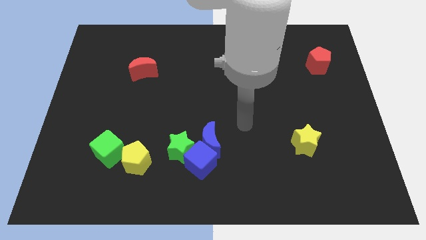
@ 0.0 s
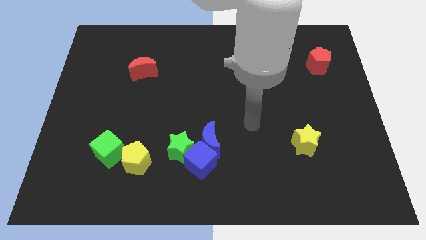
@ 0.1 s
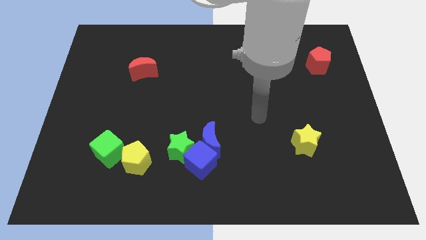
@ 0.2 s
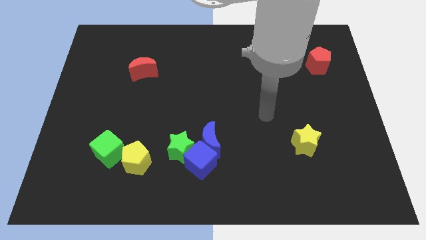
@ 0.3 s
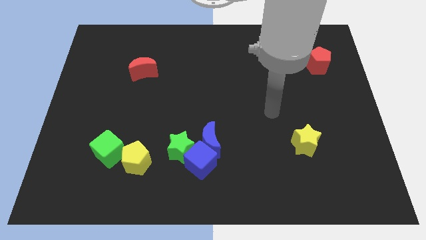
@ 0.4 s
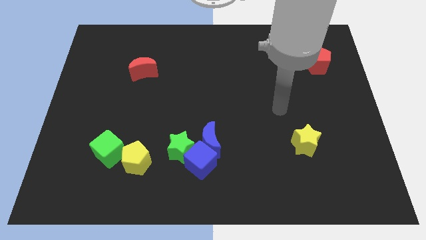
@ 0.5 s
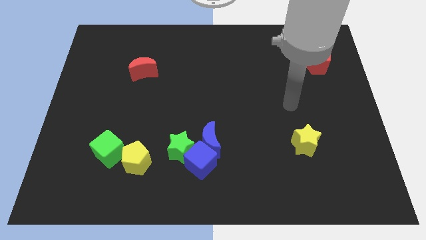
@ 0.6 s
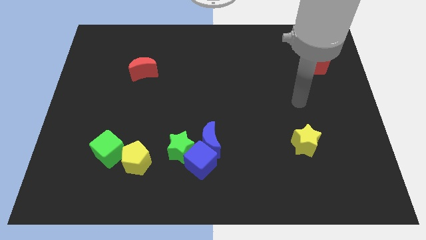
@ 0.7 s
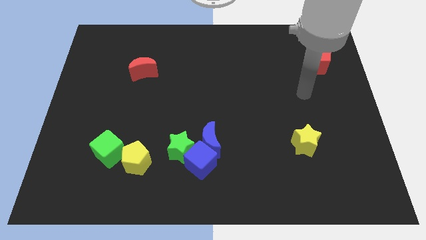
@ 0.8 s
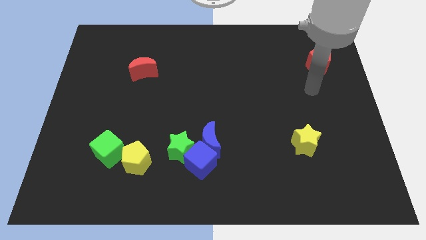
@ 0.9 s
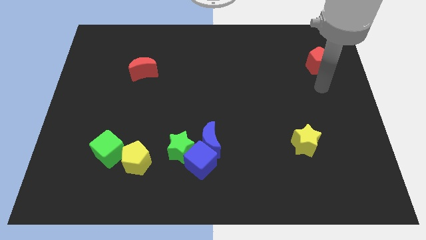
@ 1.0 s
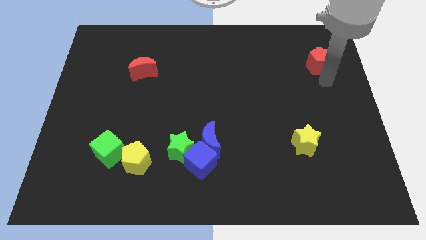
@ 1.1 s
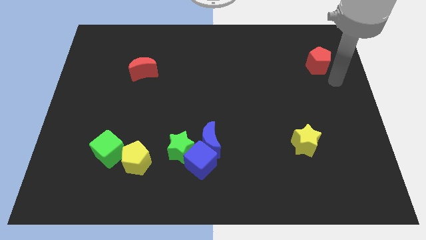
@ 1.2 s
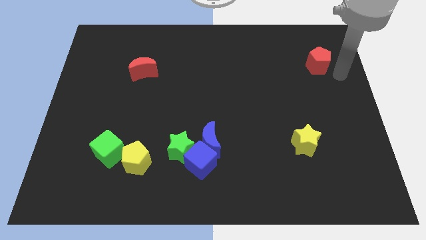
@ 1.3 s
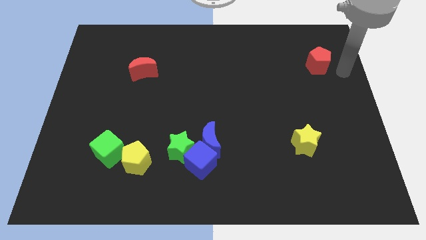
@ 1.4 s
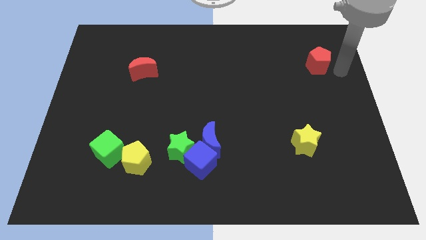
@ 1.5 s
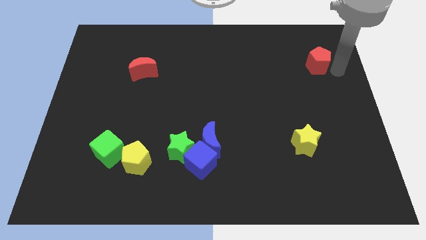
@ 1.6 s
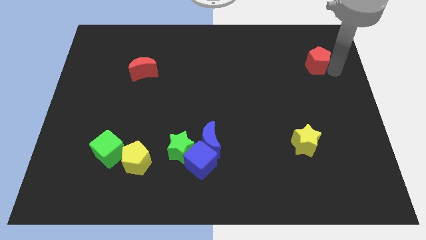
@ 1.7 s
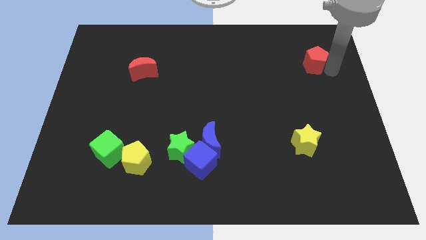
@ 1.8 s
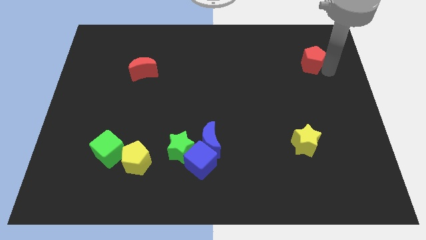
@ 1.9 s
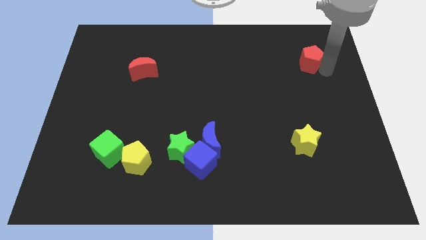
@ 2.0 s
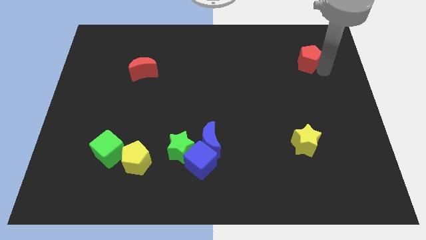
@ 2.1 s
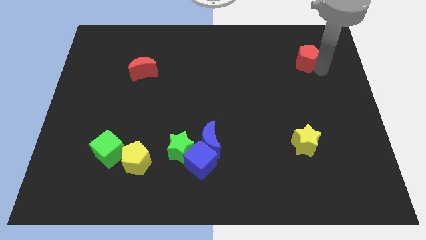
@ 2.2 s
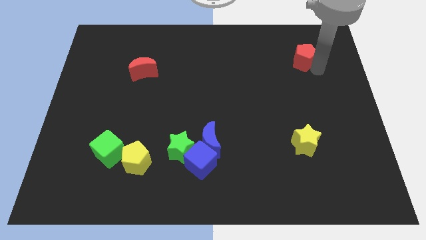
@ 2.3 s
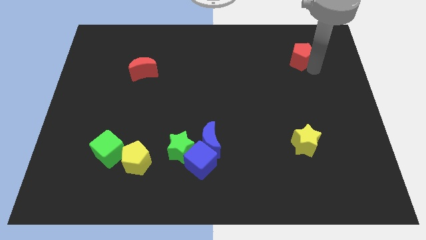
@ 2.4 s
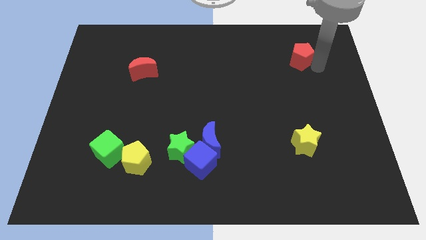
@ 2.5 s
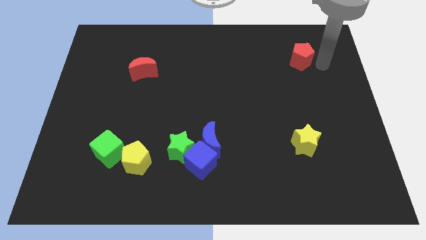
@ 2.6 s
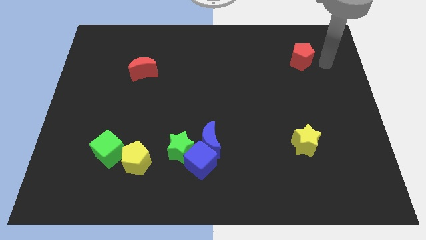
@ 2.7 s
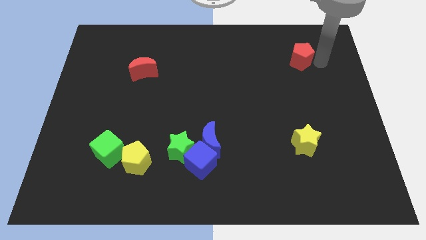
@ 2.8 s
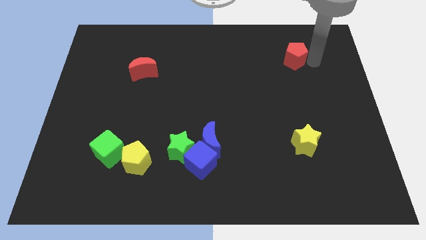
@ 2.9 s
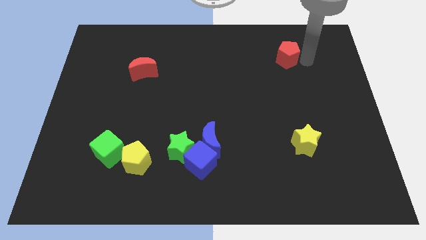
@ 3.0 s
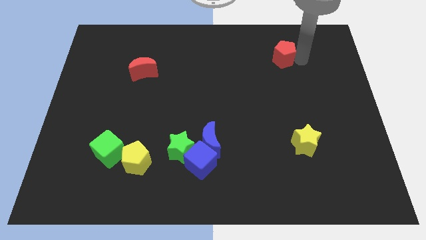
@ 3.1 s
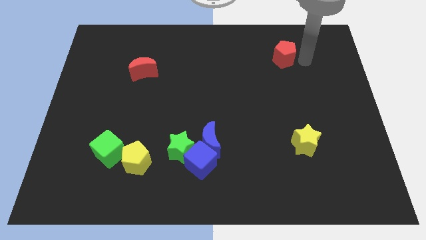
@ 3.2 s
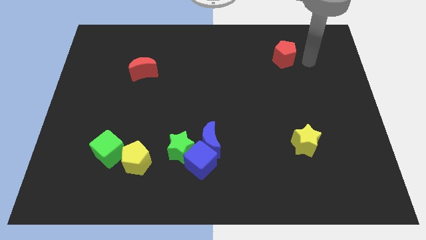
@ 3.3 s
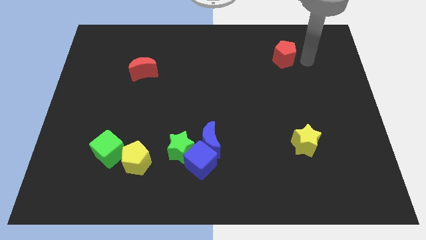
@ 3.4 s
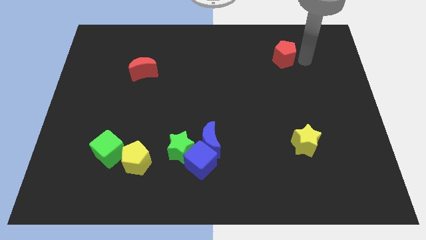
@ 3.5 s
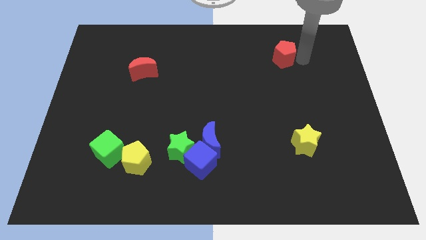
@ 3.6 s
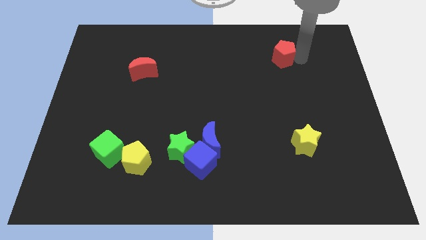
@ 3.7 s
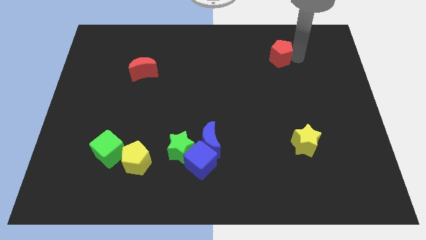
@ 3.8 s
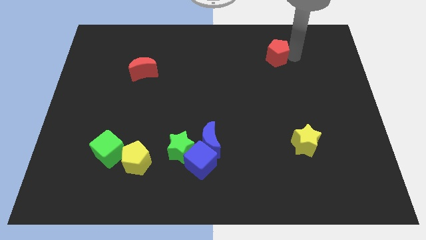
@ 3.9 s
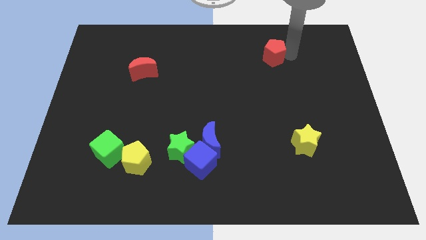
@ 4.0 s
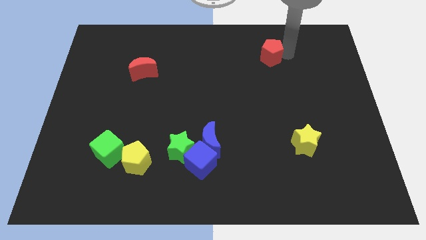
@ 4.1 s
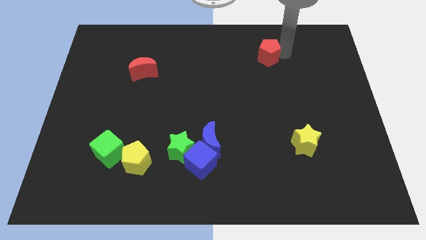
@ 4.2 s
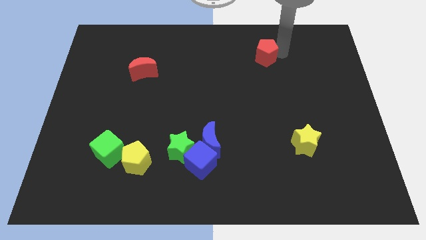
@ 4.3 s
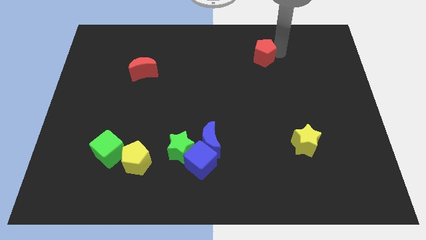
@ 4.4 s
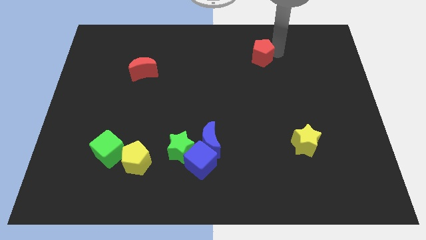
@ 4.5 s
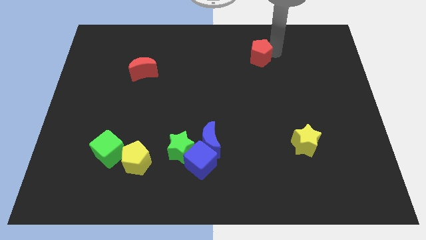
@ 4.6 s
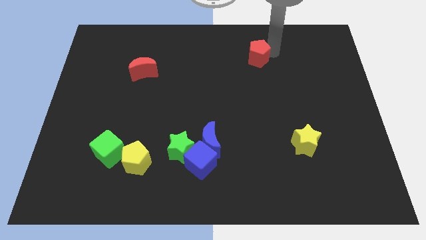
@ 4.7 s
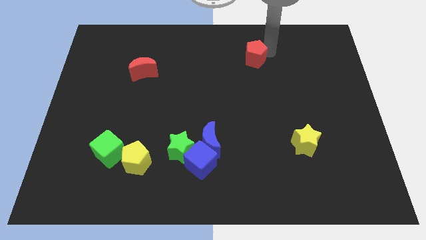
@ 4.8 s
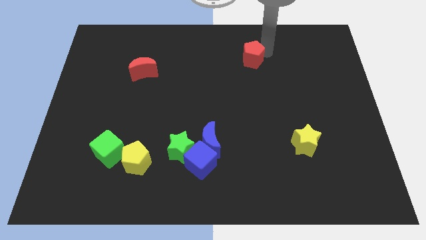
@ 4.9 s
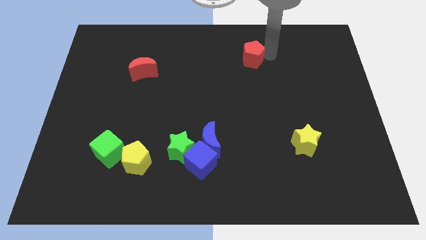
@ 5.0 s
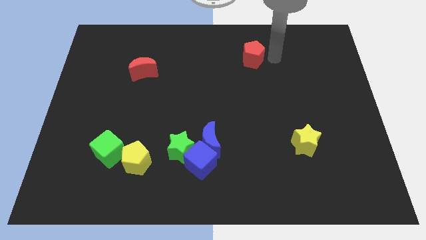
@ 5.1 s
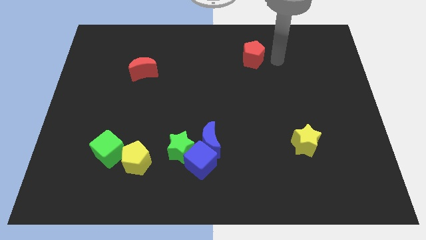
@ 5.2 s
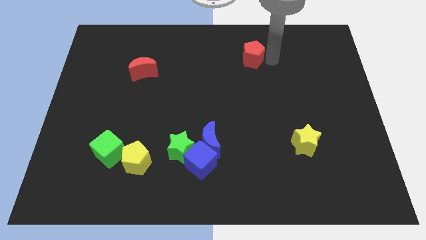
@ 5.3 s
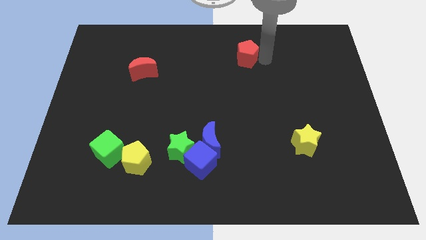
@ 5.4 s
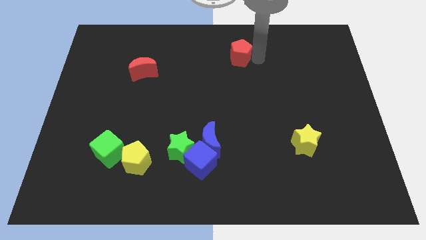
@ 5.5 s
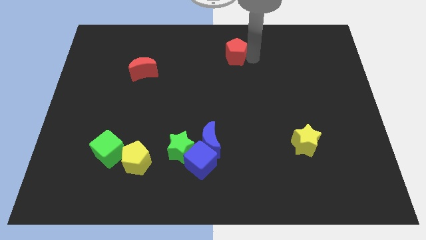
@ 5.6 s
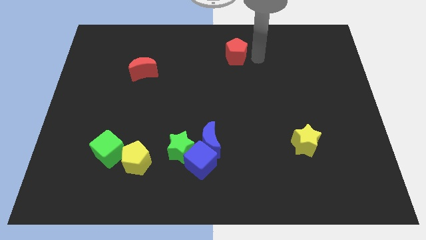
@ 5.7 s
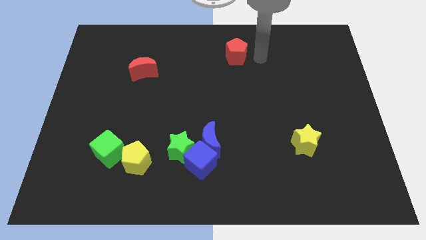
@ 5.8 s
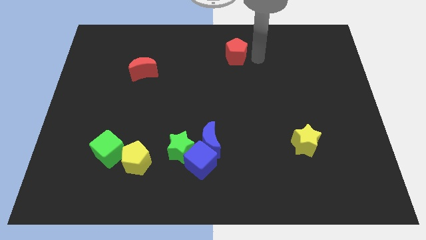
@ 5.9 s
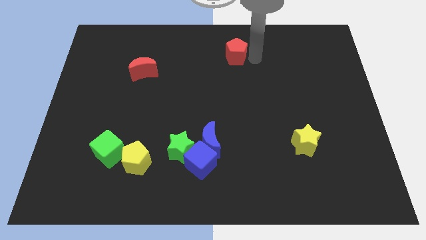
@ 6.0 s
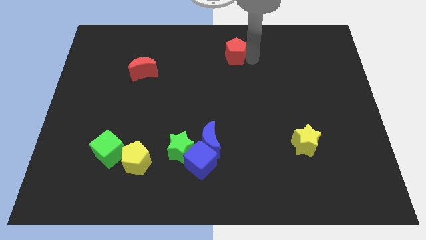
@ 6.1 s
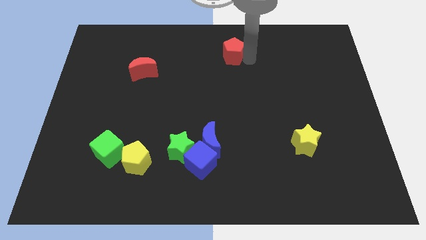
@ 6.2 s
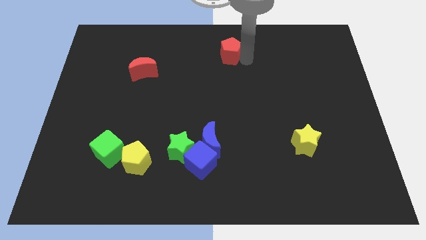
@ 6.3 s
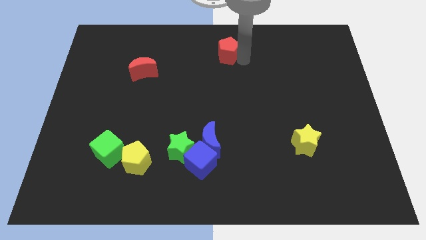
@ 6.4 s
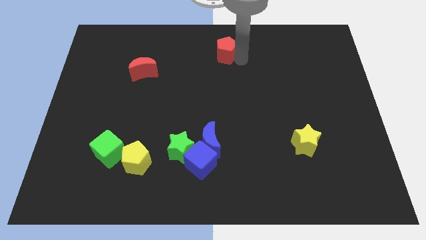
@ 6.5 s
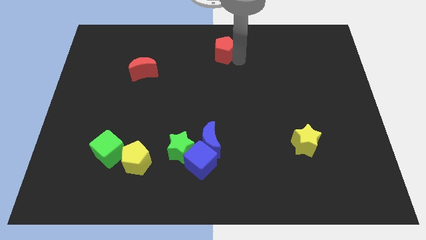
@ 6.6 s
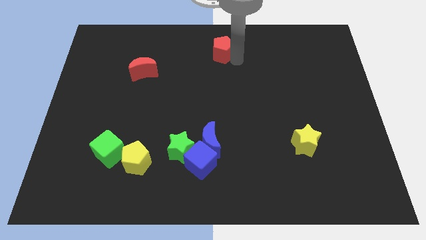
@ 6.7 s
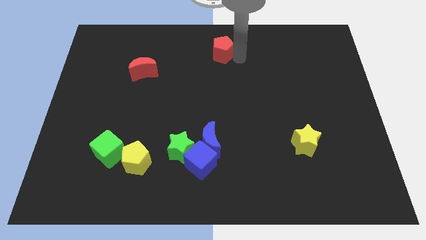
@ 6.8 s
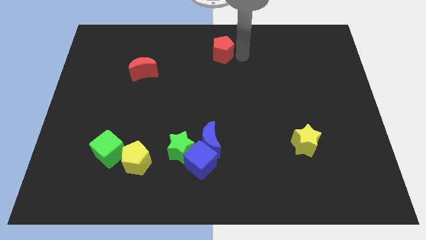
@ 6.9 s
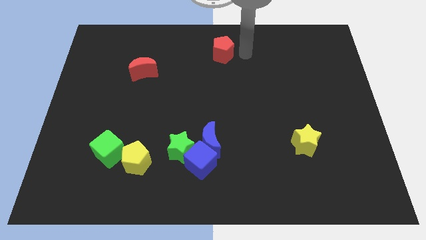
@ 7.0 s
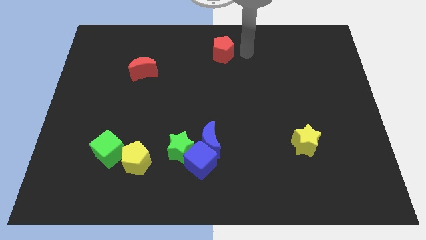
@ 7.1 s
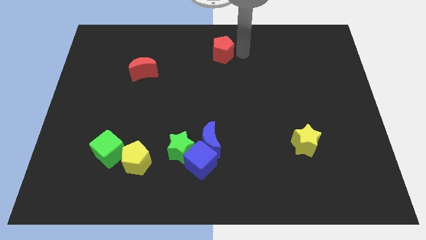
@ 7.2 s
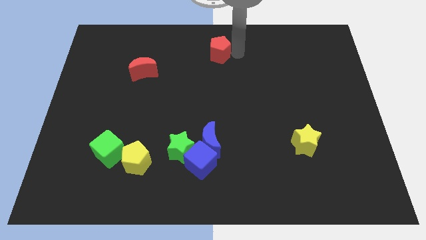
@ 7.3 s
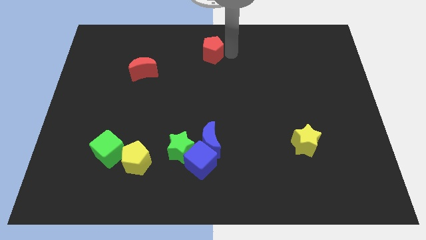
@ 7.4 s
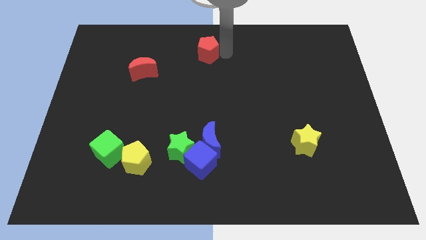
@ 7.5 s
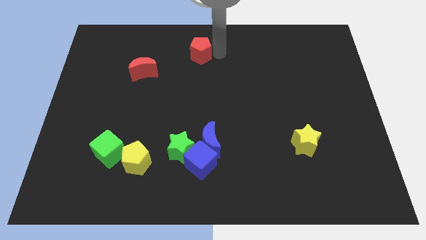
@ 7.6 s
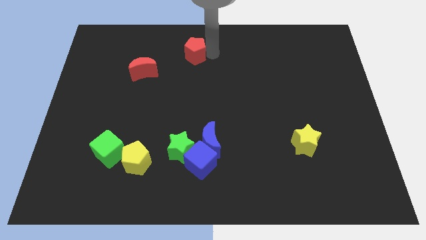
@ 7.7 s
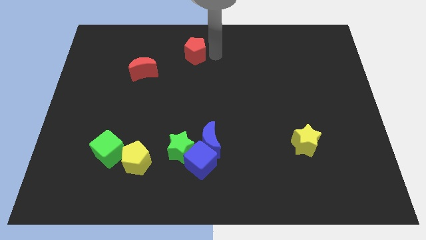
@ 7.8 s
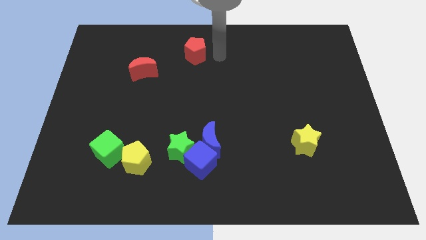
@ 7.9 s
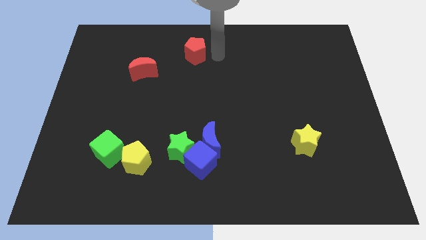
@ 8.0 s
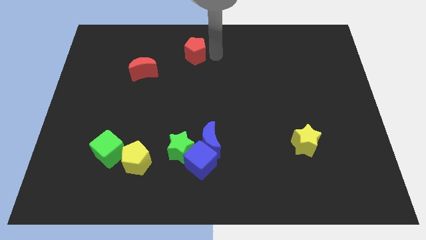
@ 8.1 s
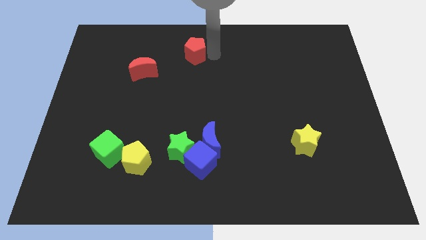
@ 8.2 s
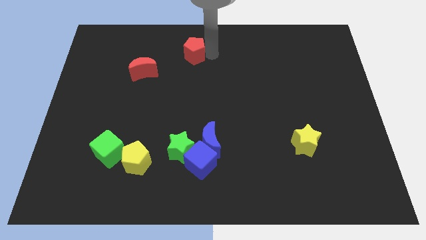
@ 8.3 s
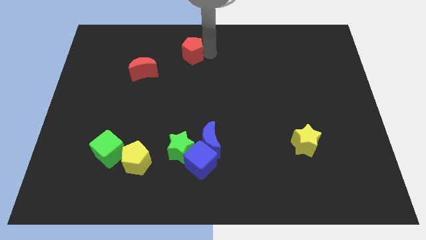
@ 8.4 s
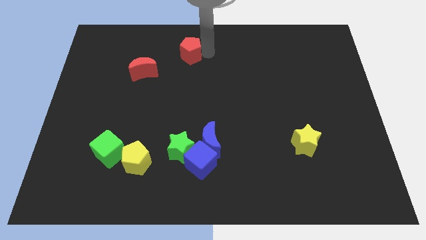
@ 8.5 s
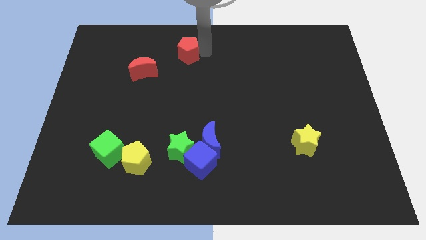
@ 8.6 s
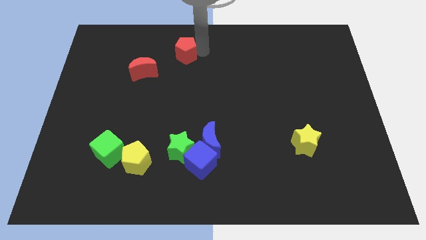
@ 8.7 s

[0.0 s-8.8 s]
slide the red pentagon to the top right side of the red moon
